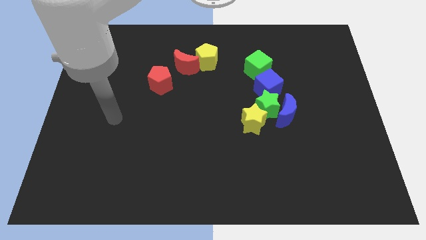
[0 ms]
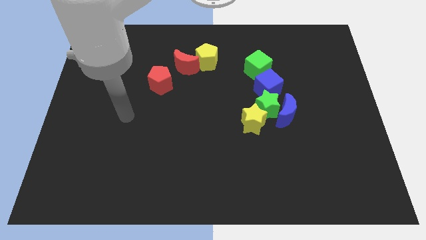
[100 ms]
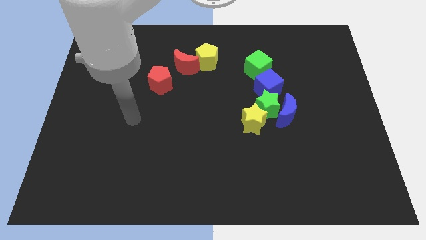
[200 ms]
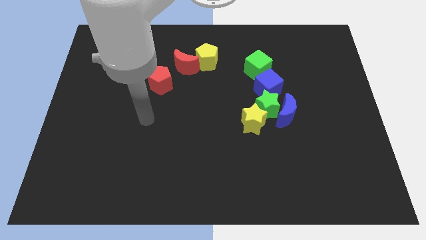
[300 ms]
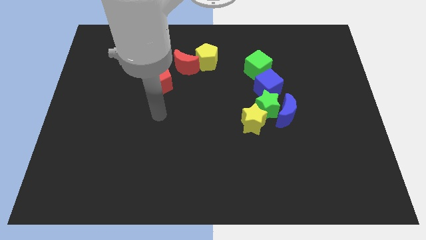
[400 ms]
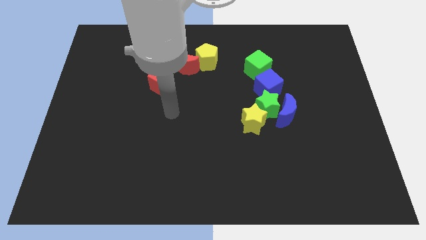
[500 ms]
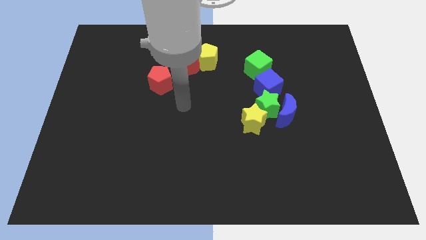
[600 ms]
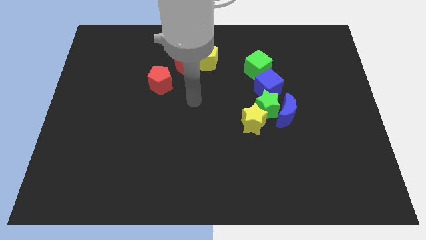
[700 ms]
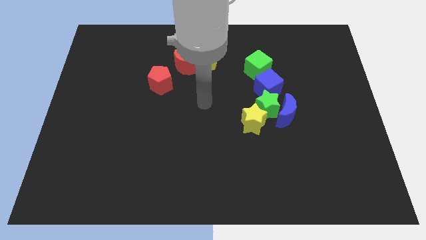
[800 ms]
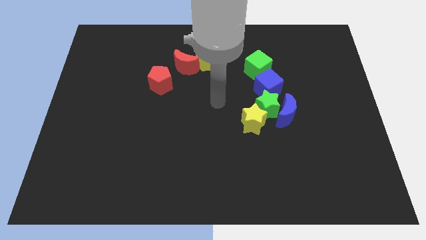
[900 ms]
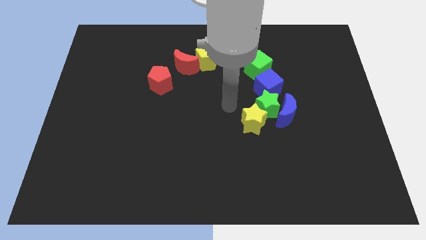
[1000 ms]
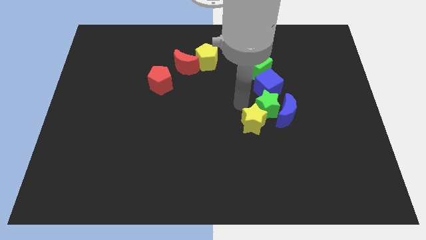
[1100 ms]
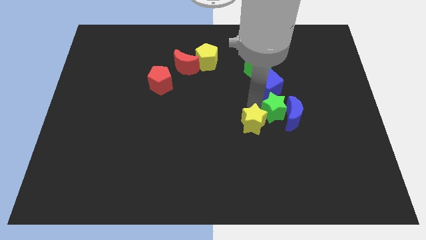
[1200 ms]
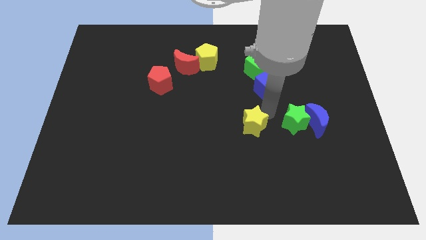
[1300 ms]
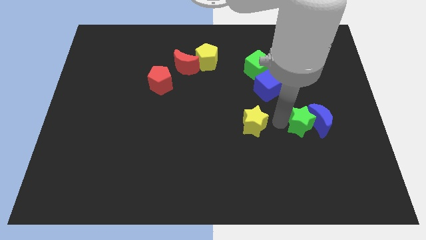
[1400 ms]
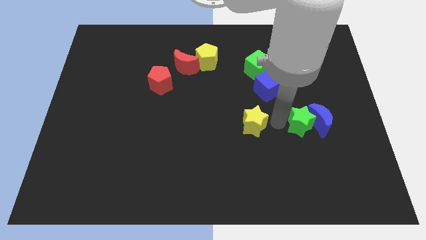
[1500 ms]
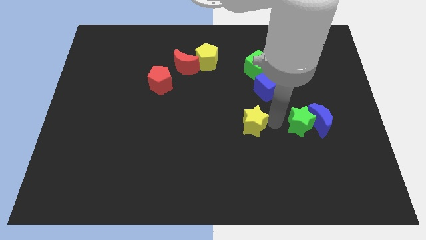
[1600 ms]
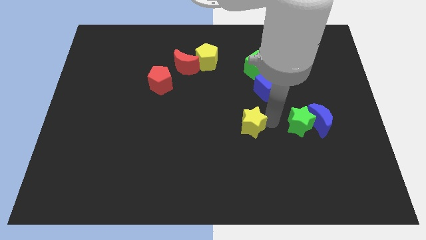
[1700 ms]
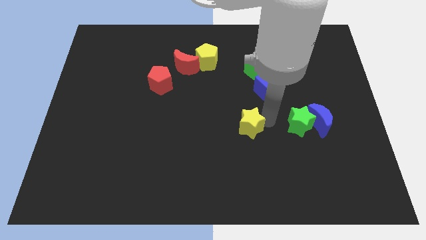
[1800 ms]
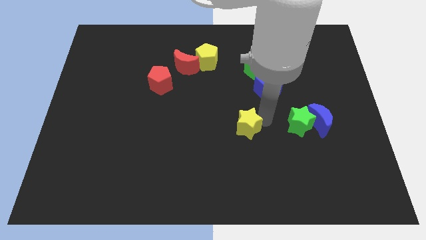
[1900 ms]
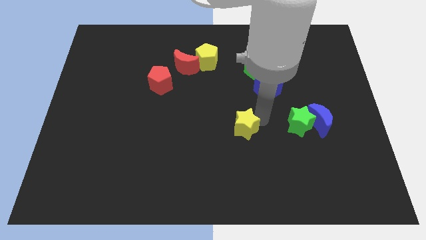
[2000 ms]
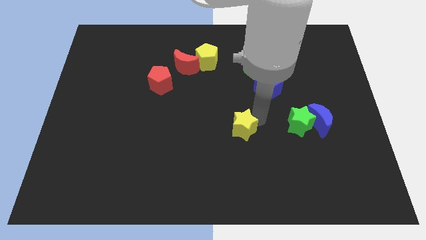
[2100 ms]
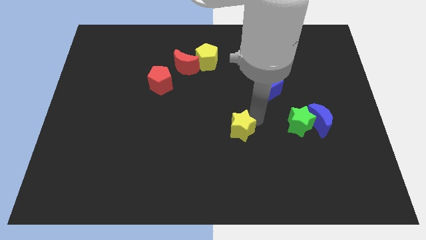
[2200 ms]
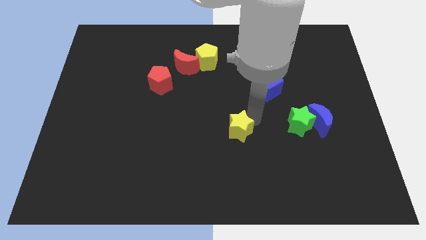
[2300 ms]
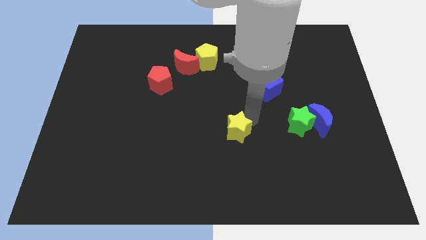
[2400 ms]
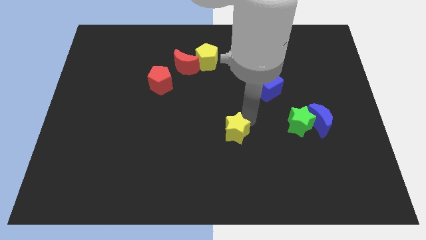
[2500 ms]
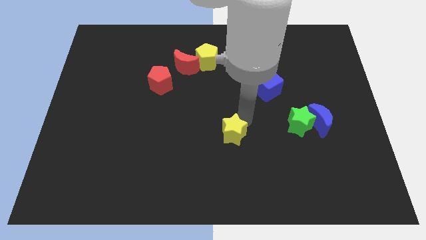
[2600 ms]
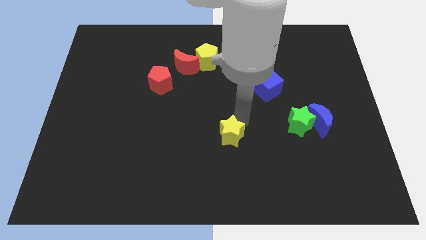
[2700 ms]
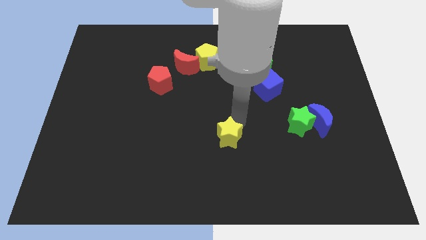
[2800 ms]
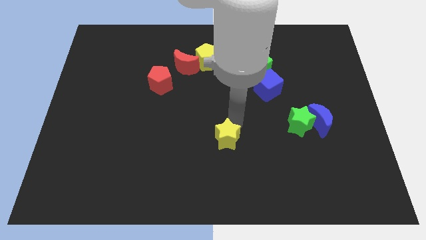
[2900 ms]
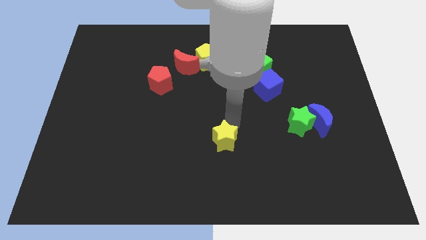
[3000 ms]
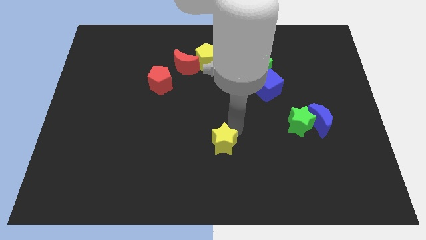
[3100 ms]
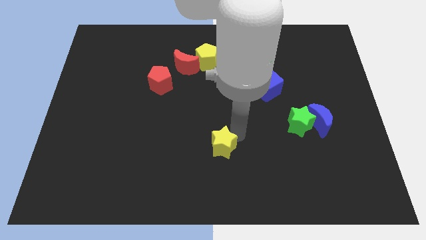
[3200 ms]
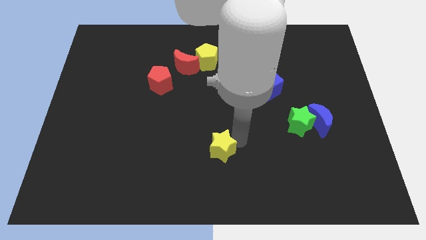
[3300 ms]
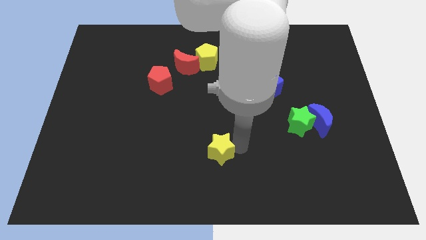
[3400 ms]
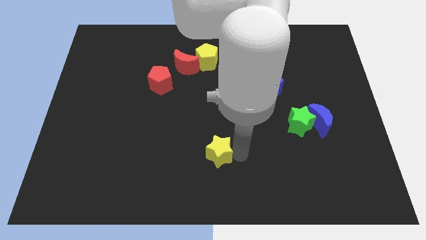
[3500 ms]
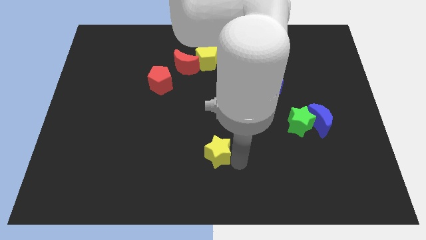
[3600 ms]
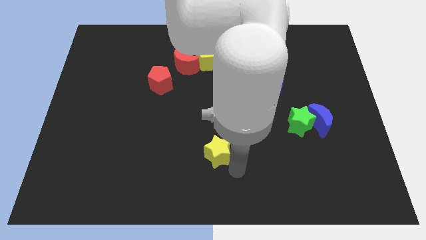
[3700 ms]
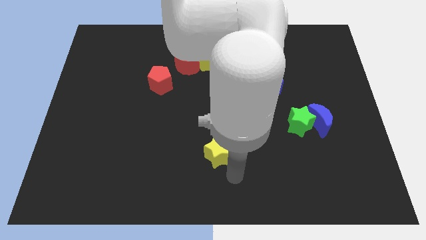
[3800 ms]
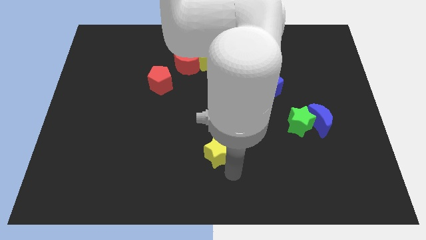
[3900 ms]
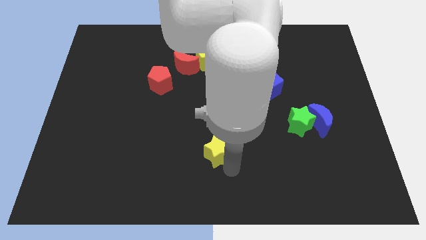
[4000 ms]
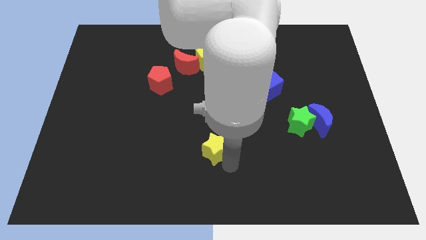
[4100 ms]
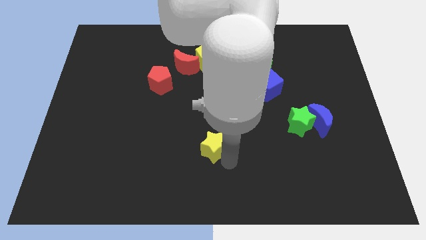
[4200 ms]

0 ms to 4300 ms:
slightly slide the yellow star left

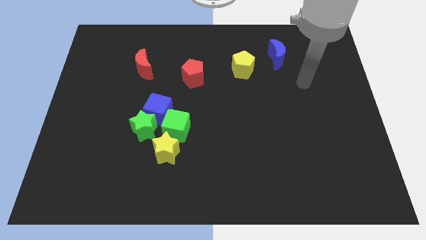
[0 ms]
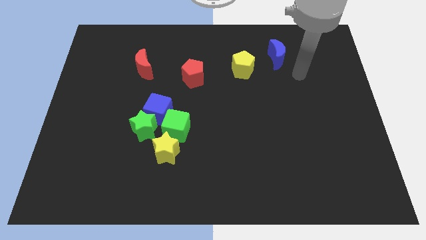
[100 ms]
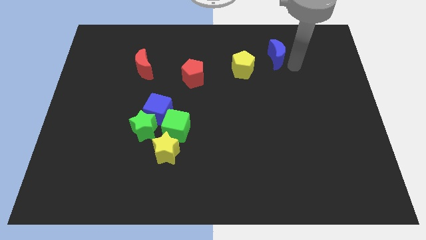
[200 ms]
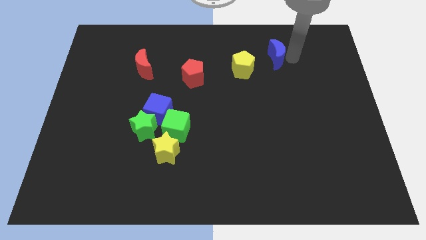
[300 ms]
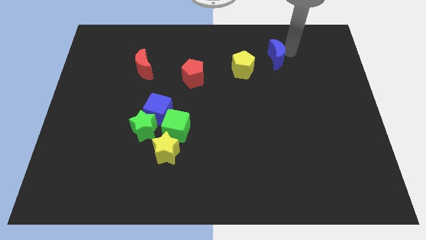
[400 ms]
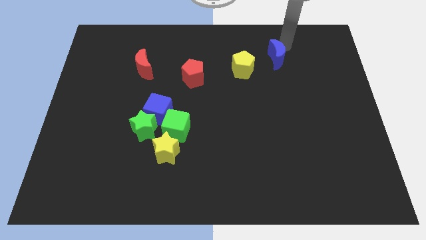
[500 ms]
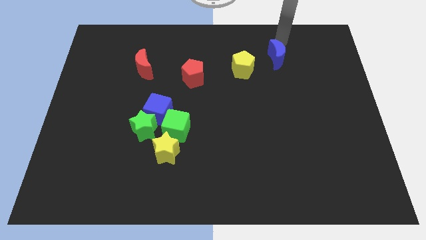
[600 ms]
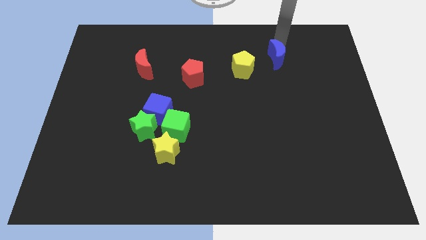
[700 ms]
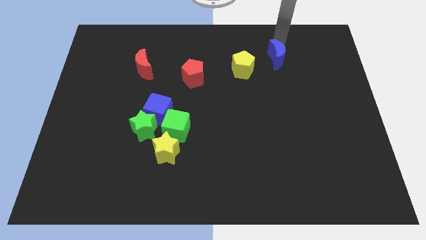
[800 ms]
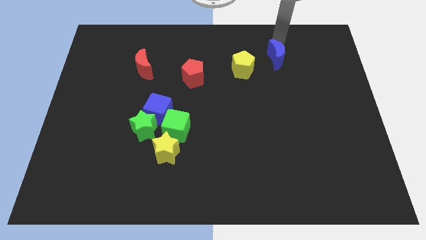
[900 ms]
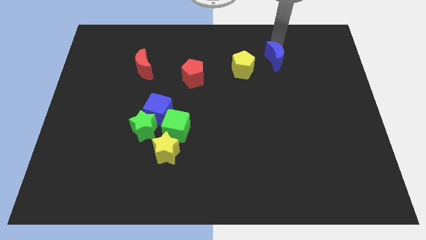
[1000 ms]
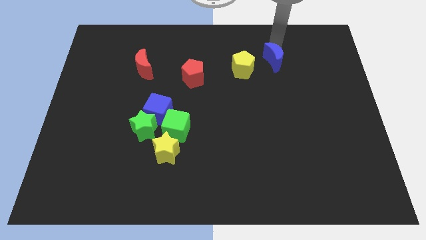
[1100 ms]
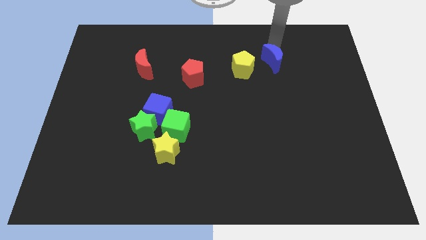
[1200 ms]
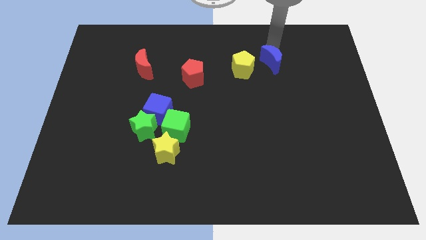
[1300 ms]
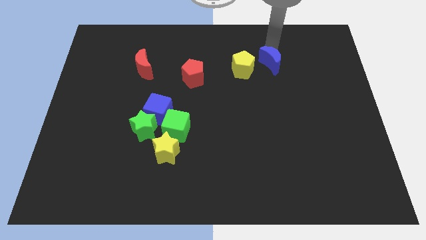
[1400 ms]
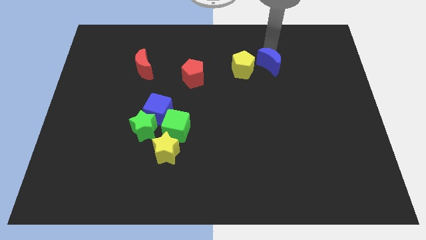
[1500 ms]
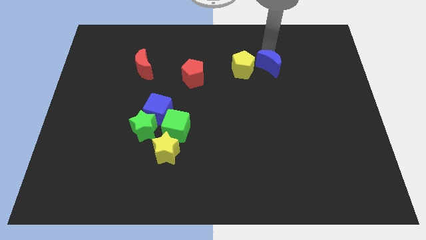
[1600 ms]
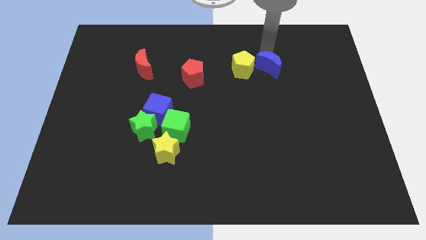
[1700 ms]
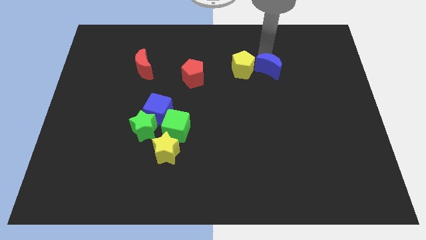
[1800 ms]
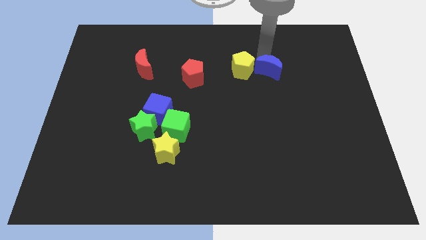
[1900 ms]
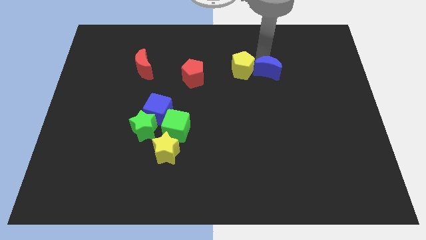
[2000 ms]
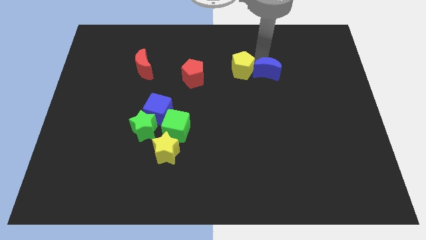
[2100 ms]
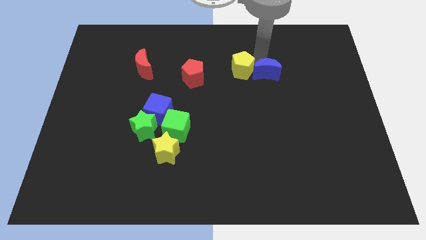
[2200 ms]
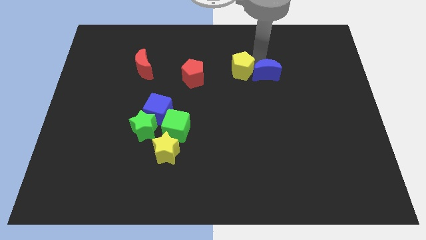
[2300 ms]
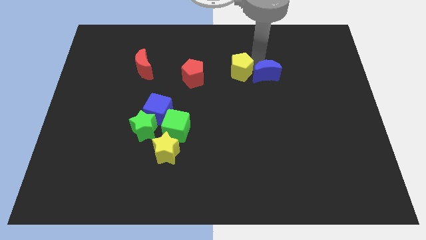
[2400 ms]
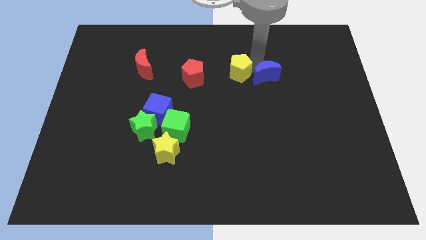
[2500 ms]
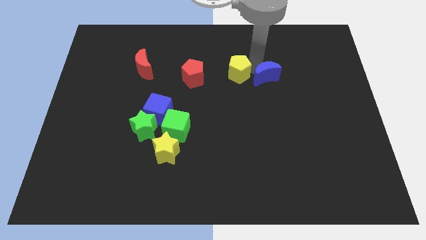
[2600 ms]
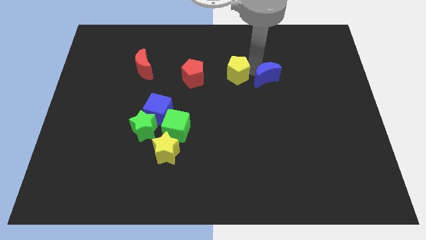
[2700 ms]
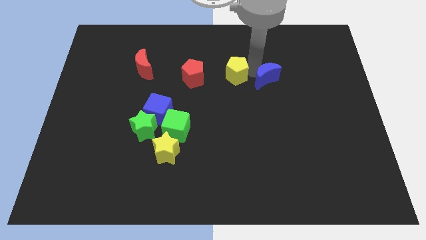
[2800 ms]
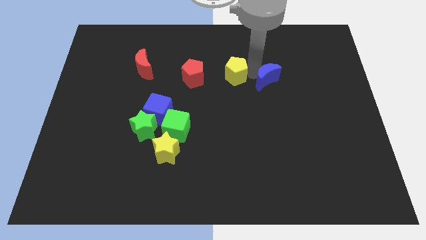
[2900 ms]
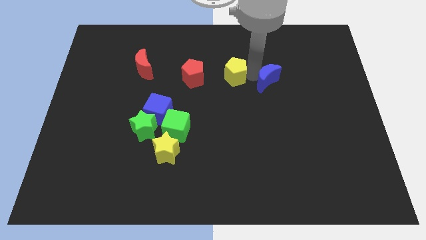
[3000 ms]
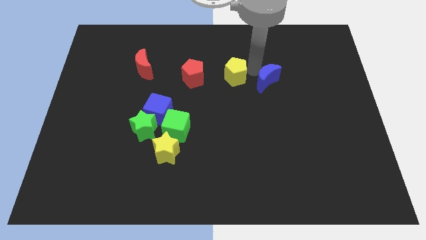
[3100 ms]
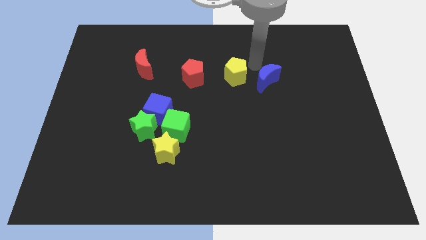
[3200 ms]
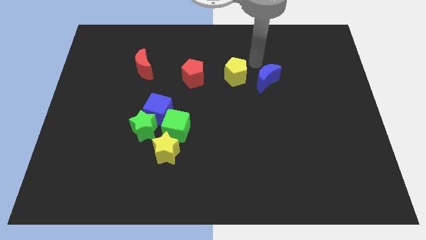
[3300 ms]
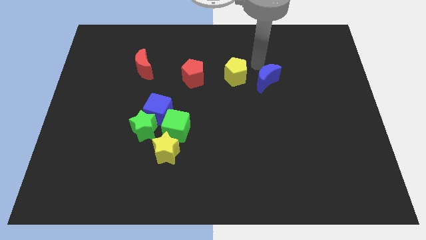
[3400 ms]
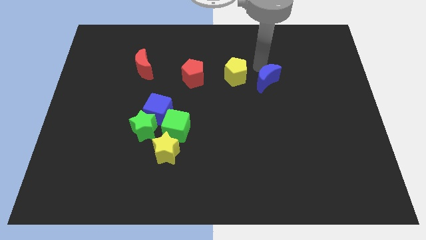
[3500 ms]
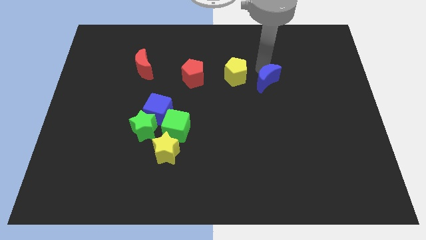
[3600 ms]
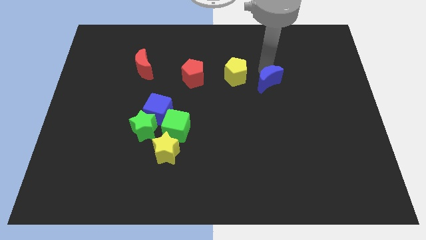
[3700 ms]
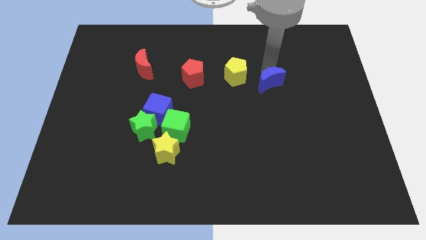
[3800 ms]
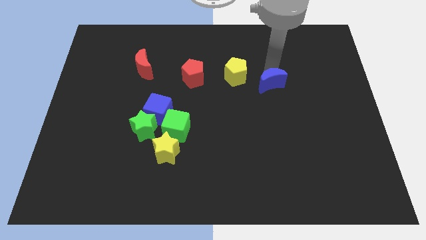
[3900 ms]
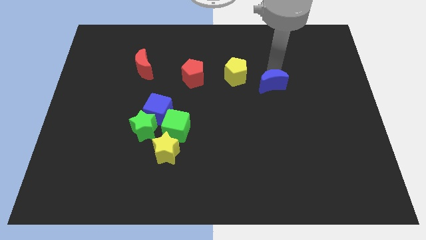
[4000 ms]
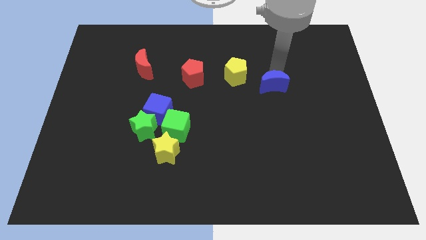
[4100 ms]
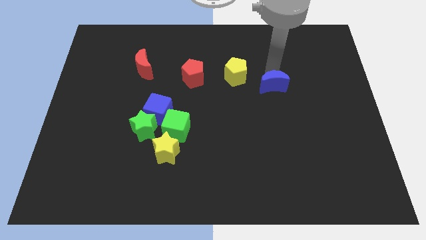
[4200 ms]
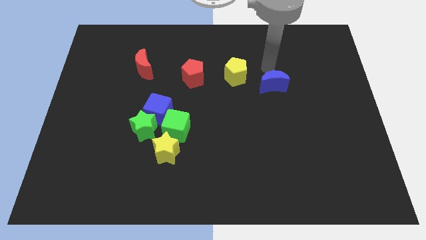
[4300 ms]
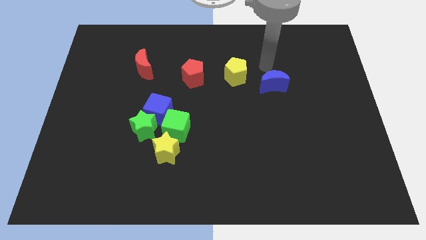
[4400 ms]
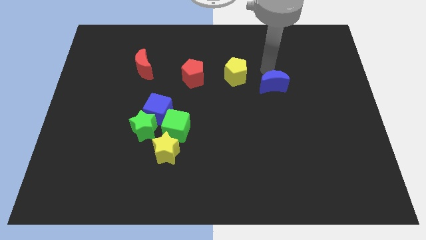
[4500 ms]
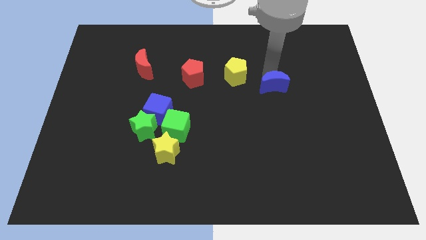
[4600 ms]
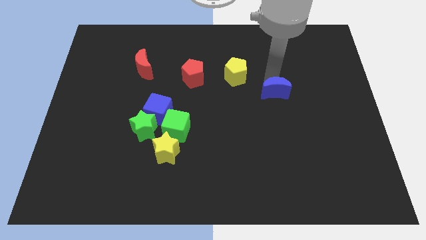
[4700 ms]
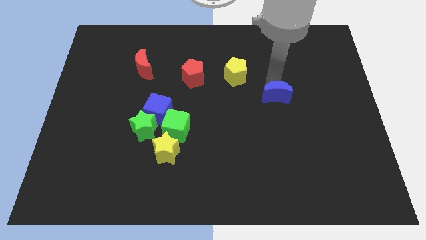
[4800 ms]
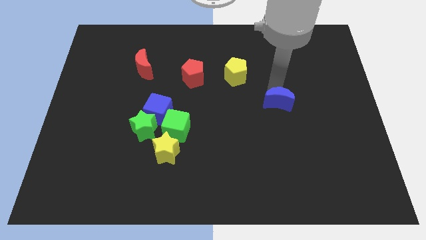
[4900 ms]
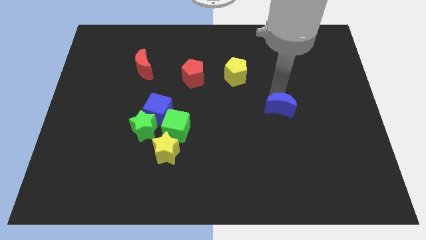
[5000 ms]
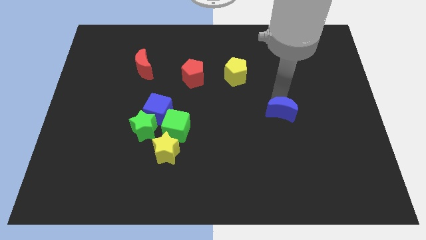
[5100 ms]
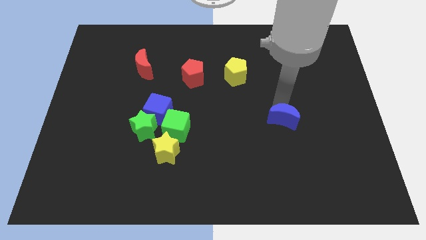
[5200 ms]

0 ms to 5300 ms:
push the blue moon downwards
